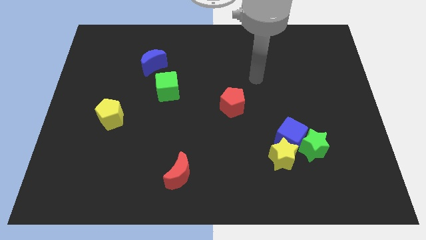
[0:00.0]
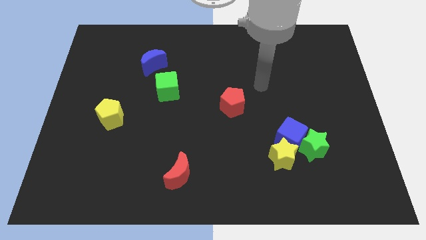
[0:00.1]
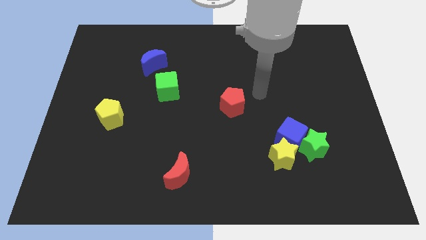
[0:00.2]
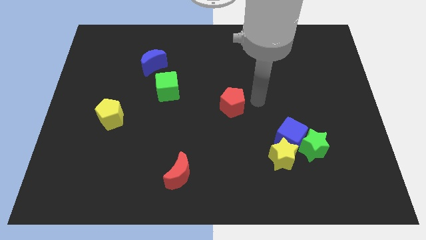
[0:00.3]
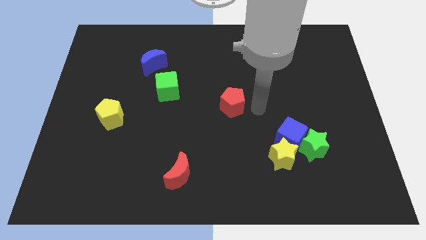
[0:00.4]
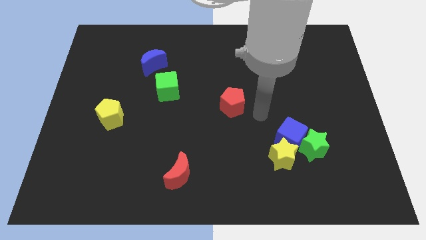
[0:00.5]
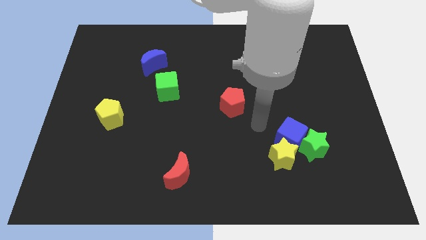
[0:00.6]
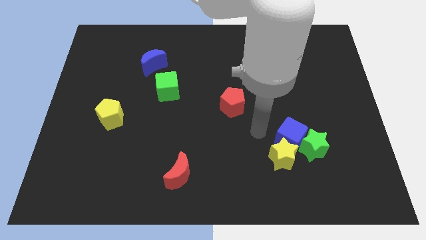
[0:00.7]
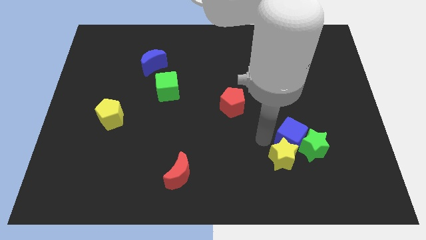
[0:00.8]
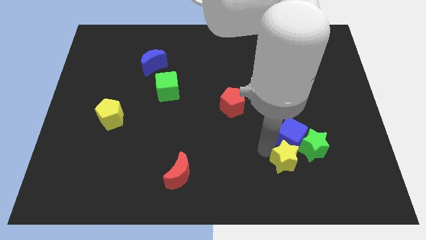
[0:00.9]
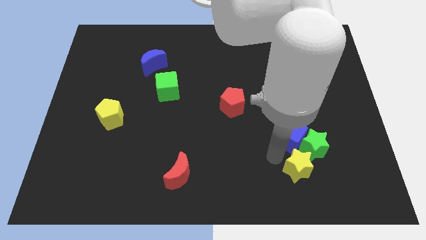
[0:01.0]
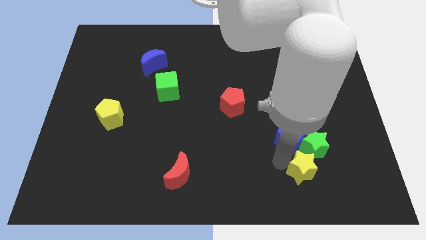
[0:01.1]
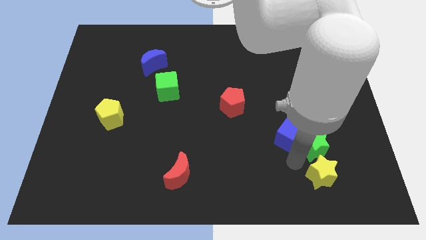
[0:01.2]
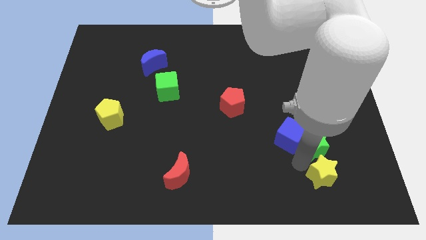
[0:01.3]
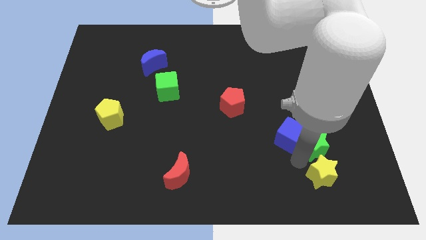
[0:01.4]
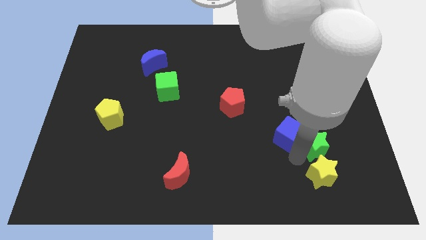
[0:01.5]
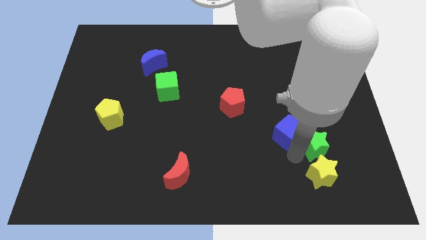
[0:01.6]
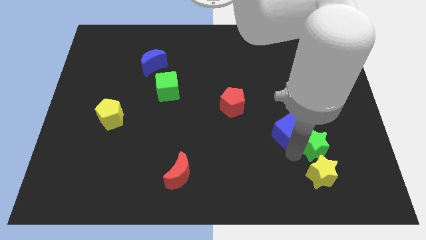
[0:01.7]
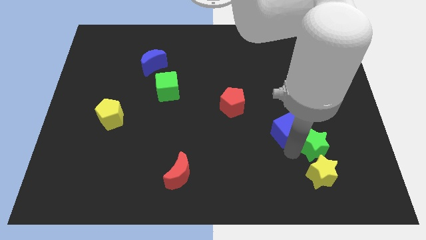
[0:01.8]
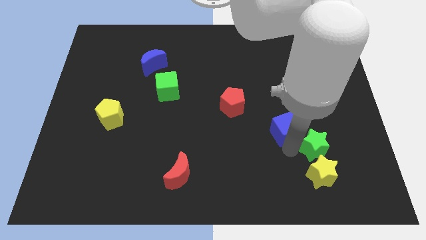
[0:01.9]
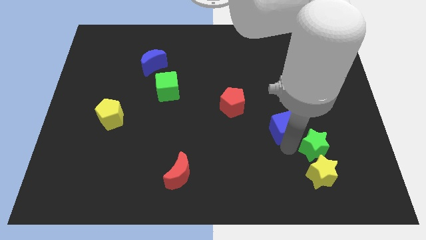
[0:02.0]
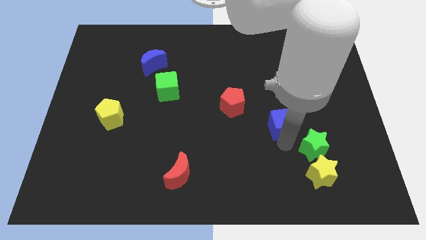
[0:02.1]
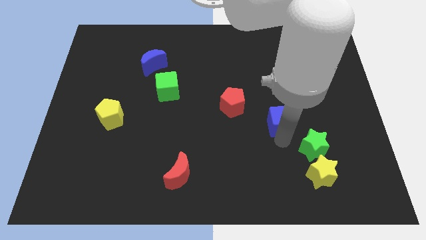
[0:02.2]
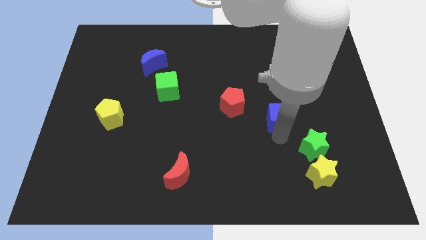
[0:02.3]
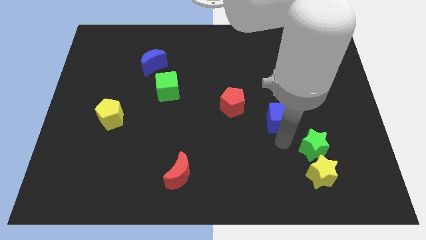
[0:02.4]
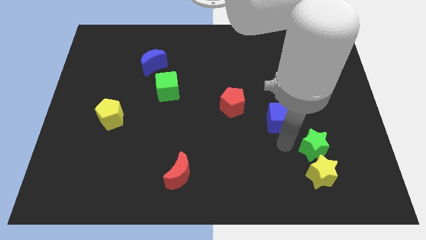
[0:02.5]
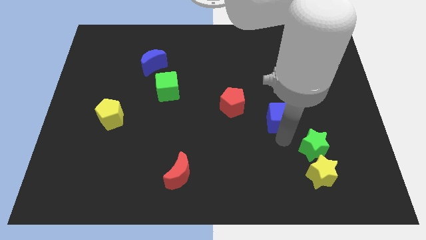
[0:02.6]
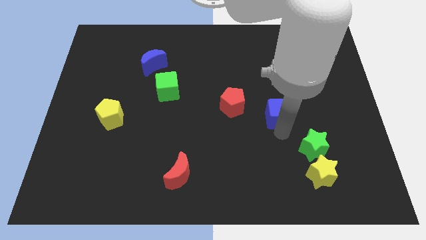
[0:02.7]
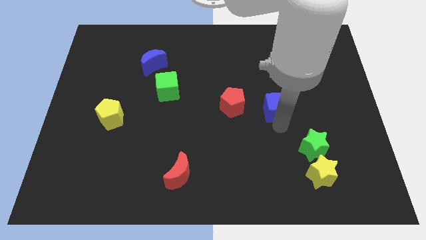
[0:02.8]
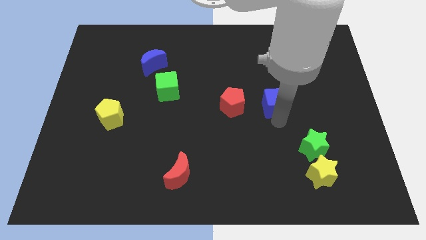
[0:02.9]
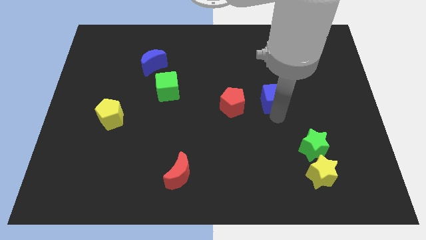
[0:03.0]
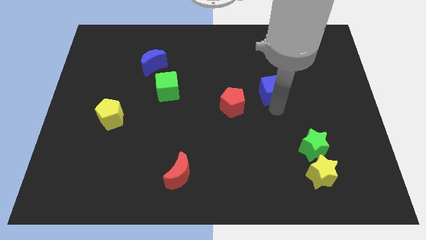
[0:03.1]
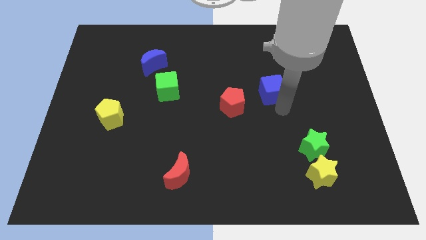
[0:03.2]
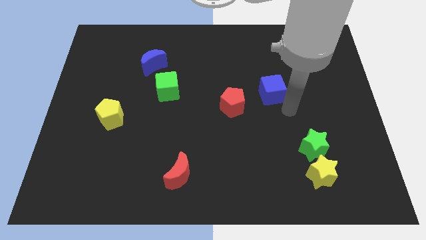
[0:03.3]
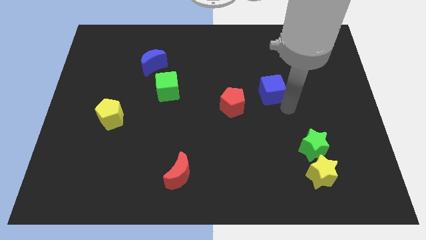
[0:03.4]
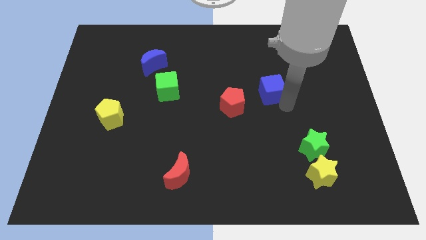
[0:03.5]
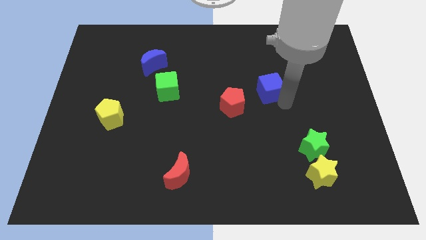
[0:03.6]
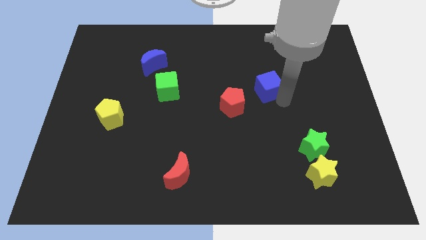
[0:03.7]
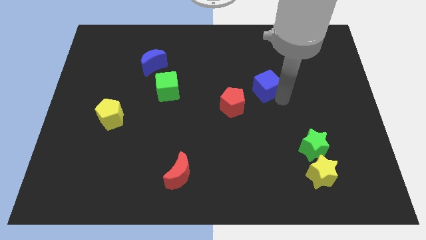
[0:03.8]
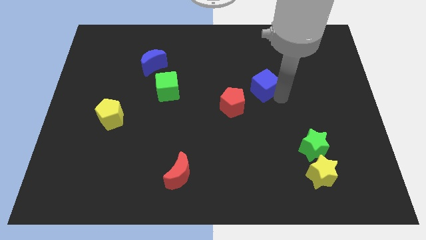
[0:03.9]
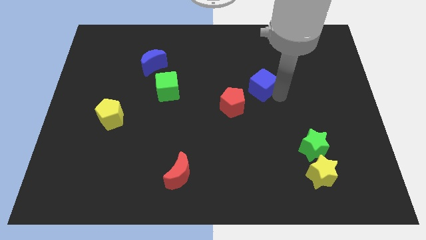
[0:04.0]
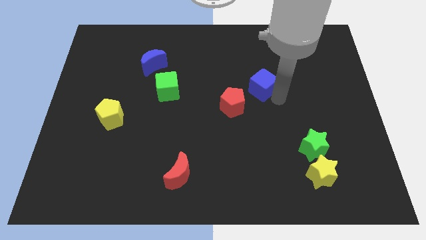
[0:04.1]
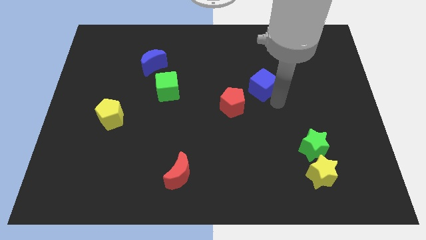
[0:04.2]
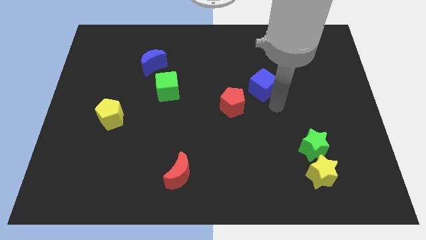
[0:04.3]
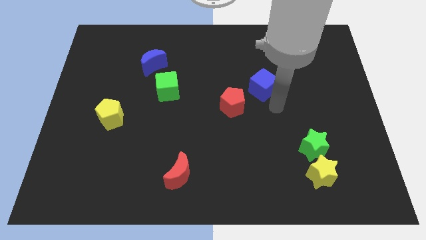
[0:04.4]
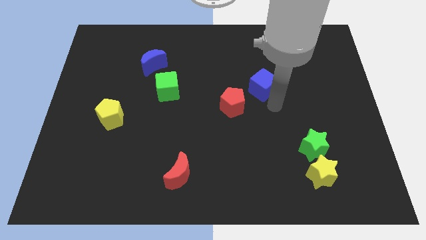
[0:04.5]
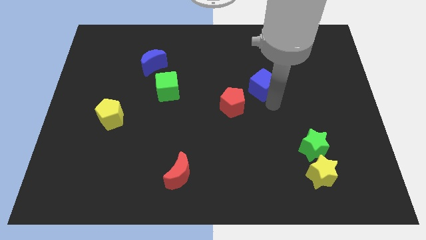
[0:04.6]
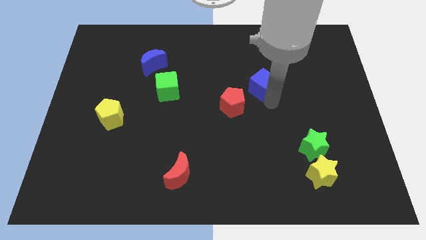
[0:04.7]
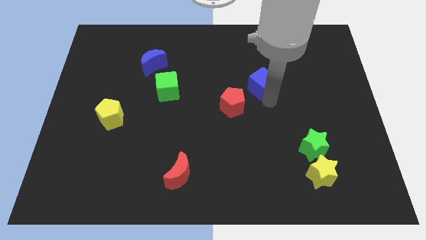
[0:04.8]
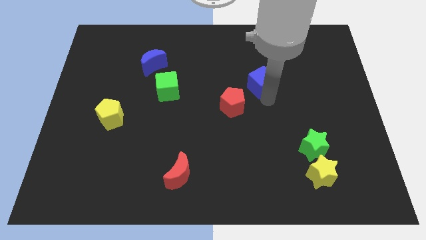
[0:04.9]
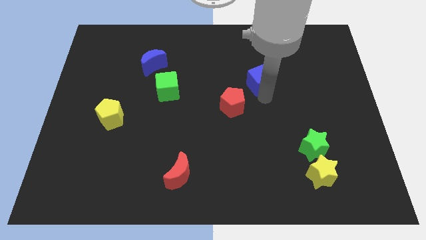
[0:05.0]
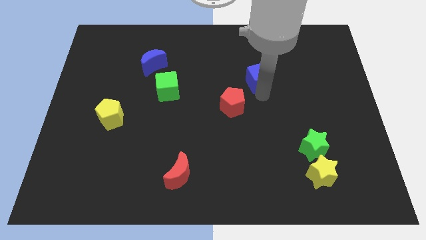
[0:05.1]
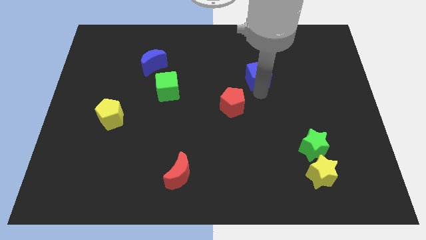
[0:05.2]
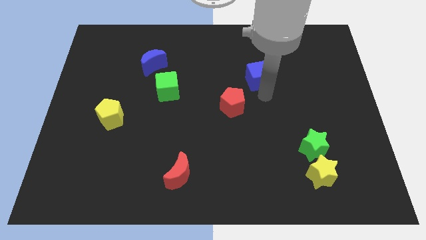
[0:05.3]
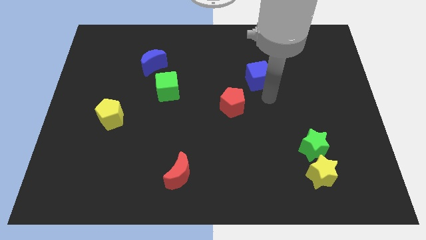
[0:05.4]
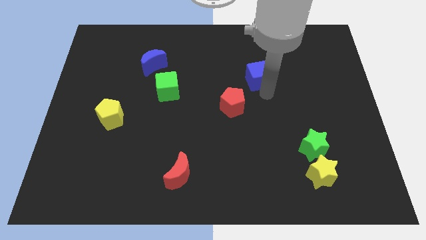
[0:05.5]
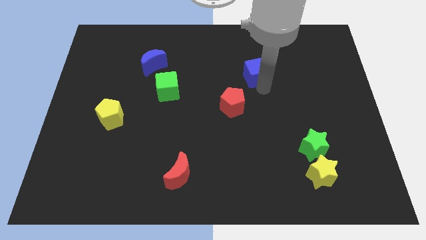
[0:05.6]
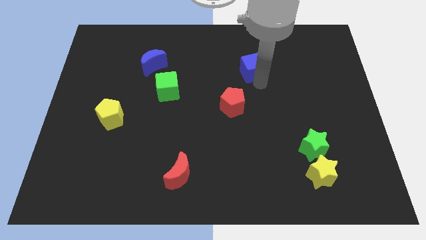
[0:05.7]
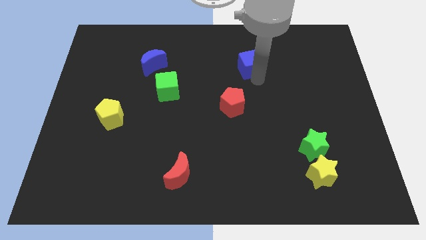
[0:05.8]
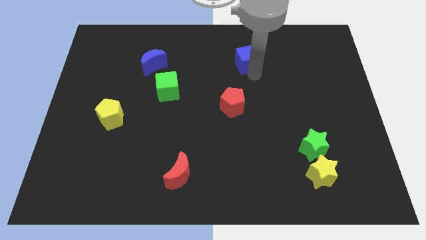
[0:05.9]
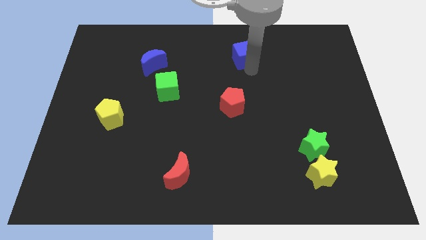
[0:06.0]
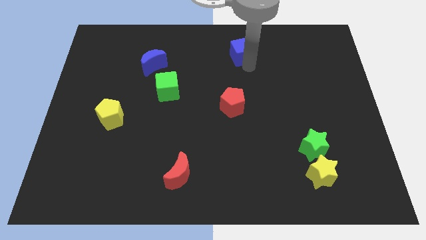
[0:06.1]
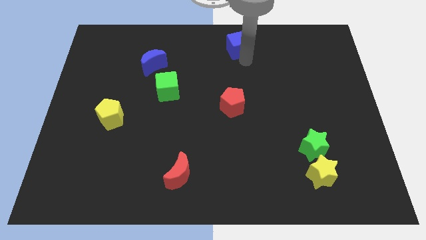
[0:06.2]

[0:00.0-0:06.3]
push the blue cube to the top side

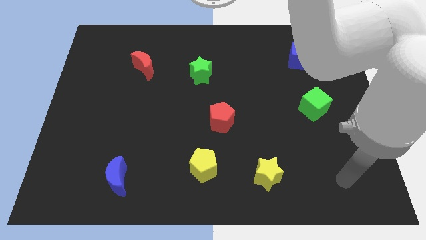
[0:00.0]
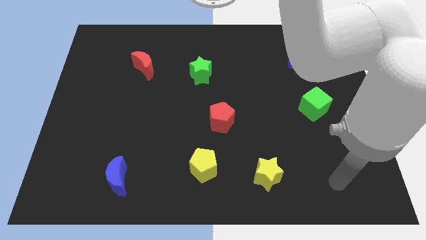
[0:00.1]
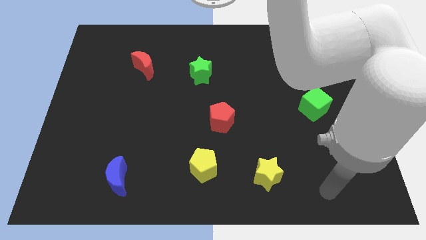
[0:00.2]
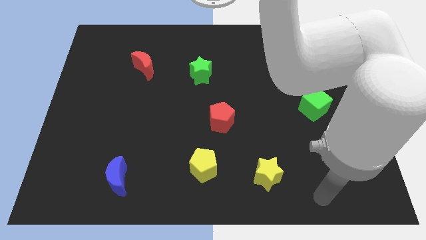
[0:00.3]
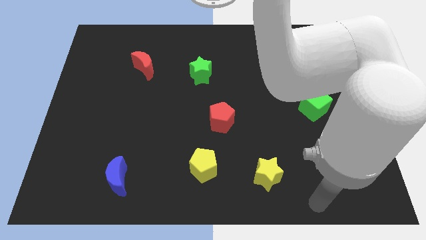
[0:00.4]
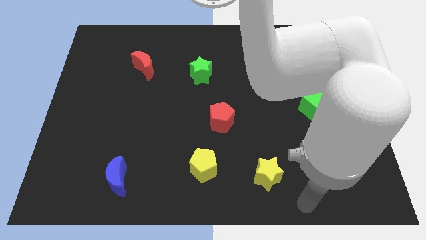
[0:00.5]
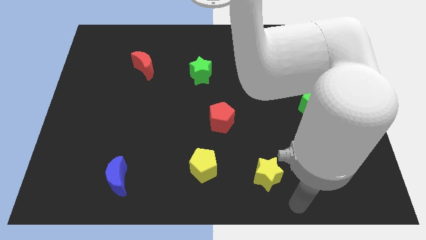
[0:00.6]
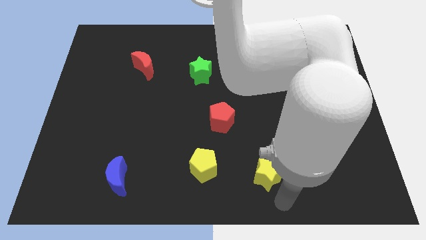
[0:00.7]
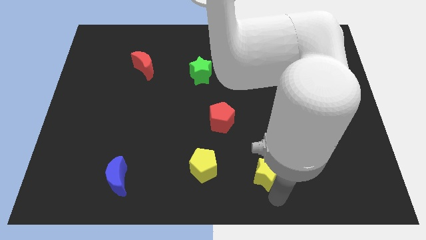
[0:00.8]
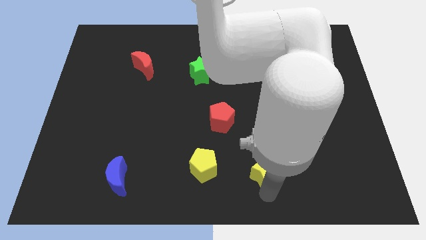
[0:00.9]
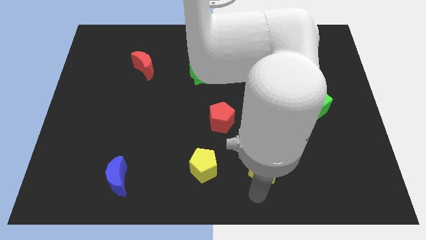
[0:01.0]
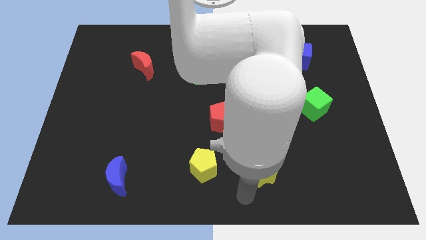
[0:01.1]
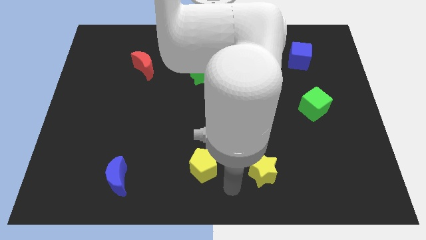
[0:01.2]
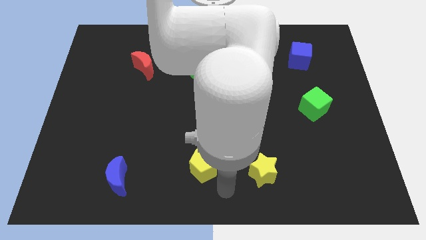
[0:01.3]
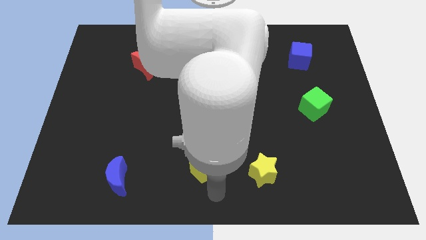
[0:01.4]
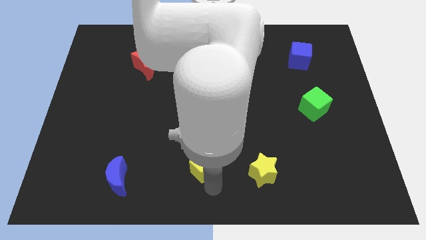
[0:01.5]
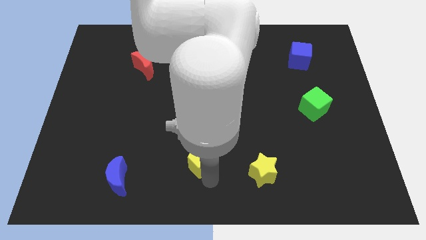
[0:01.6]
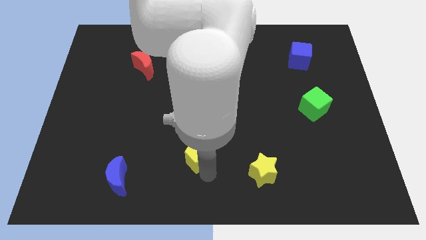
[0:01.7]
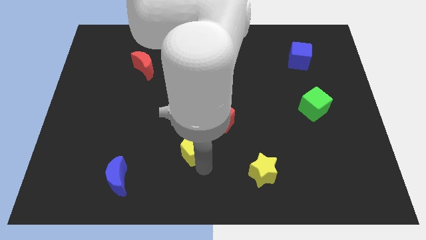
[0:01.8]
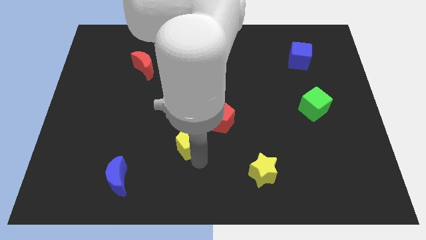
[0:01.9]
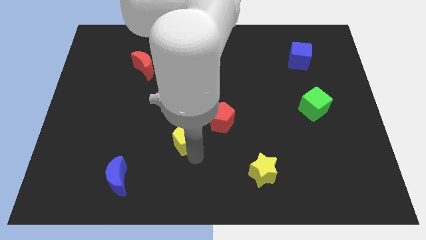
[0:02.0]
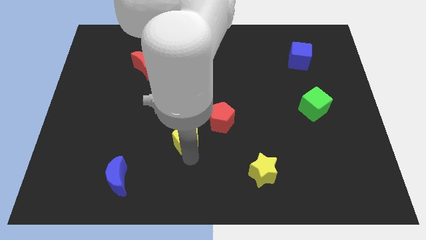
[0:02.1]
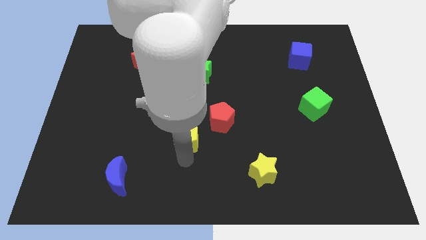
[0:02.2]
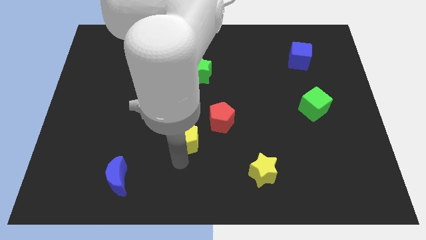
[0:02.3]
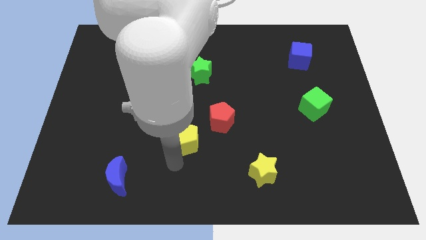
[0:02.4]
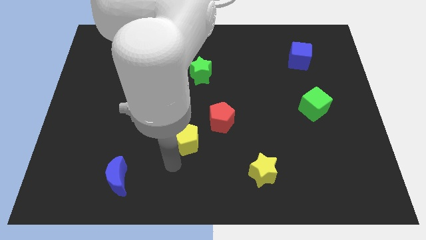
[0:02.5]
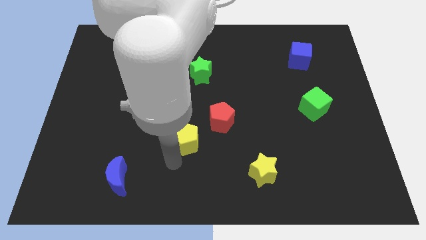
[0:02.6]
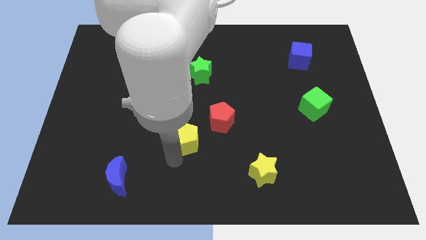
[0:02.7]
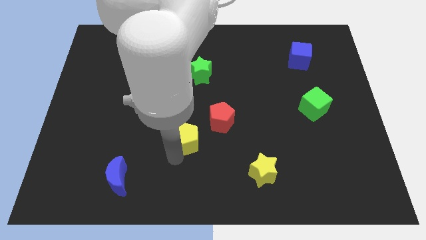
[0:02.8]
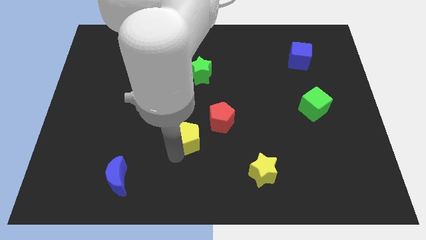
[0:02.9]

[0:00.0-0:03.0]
push the yellow pentagon to the middle
